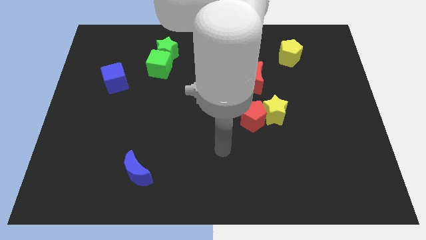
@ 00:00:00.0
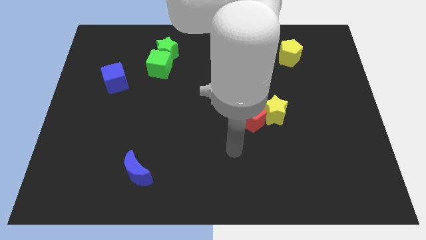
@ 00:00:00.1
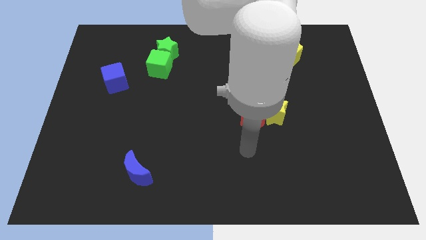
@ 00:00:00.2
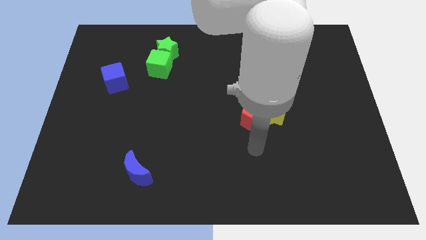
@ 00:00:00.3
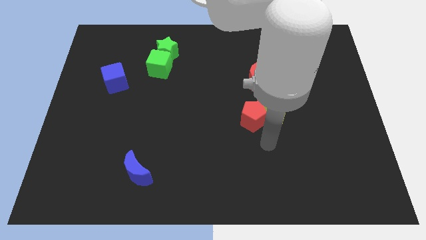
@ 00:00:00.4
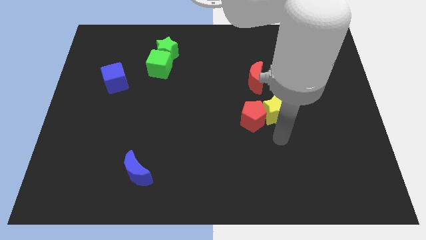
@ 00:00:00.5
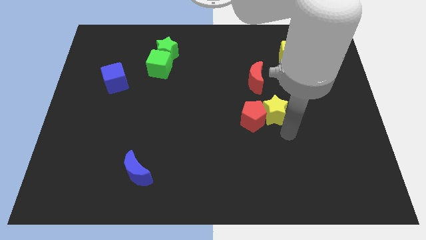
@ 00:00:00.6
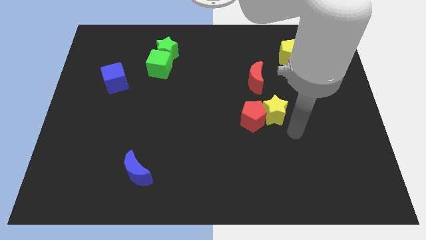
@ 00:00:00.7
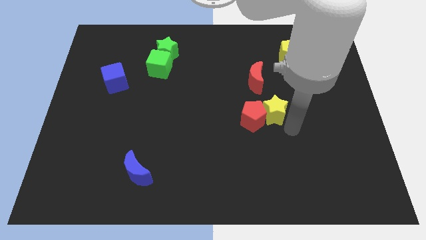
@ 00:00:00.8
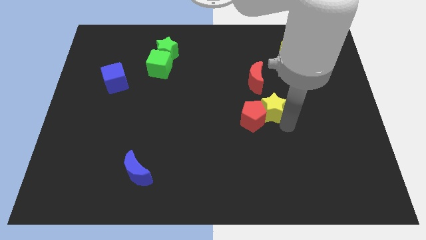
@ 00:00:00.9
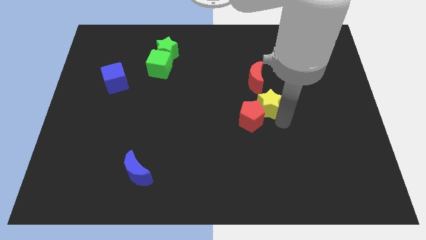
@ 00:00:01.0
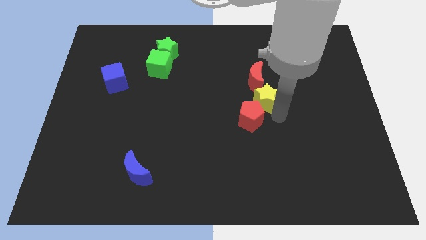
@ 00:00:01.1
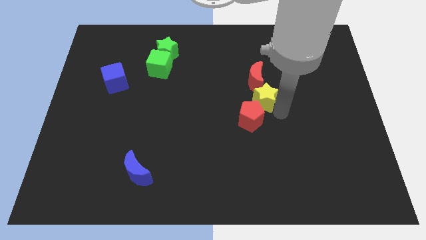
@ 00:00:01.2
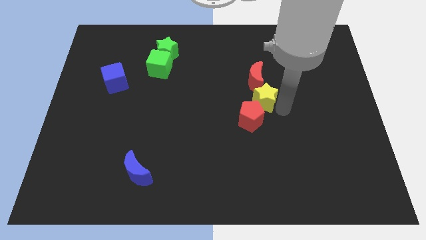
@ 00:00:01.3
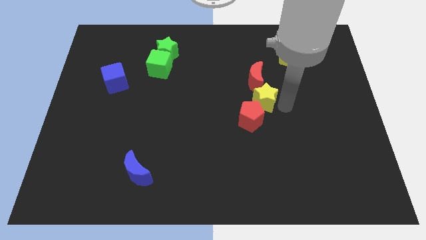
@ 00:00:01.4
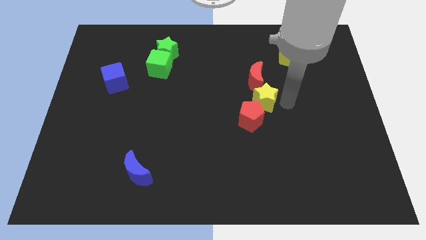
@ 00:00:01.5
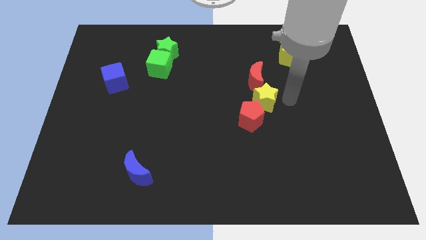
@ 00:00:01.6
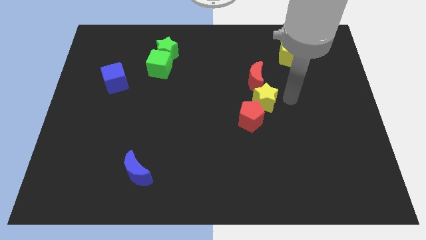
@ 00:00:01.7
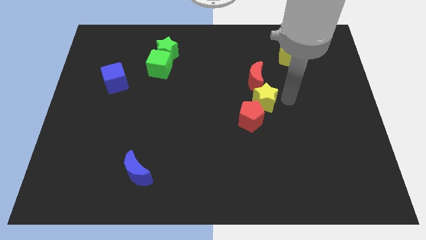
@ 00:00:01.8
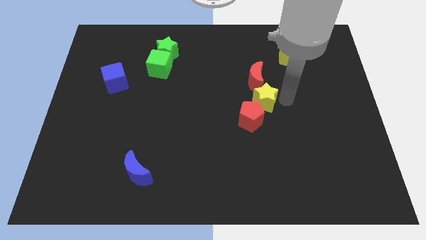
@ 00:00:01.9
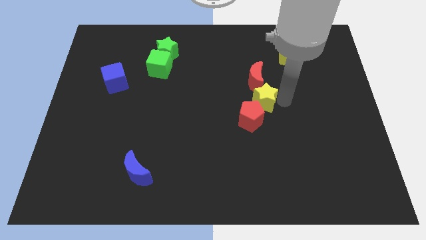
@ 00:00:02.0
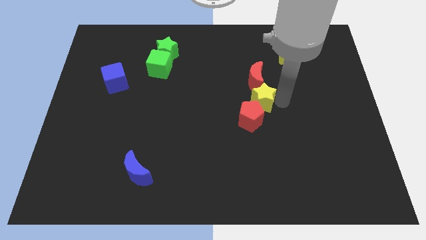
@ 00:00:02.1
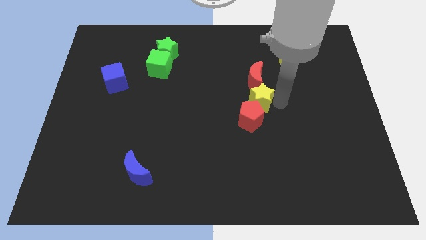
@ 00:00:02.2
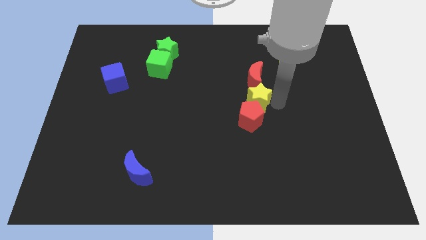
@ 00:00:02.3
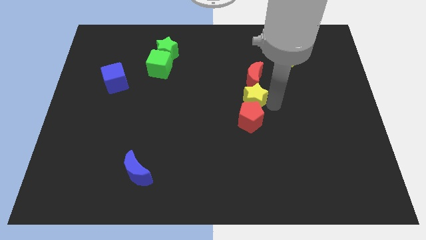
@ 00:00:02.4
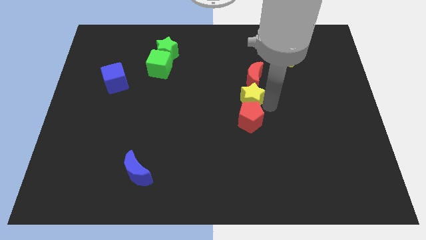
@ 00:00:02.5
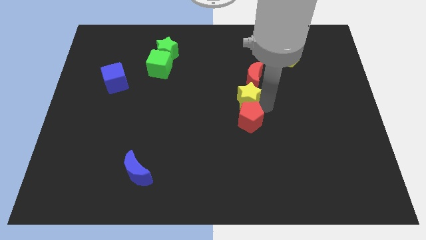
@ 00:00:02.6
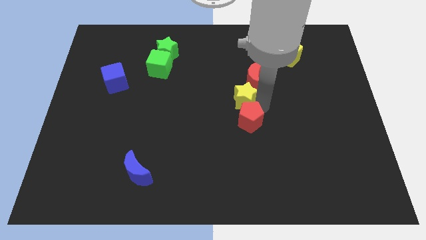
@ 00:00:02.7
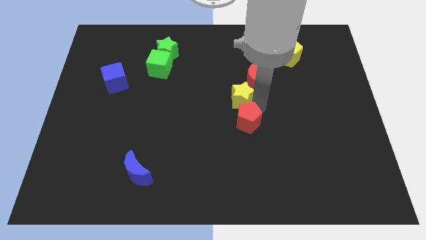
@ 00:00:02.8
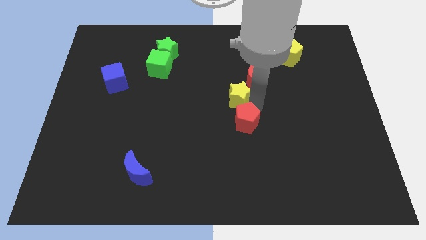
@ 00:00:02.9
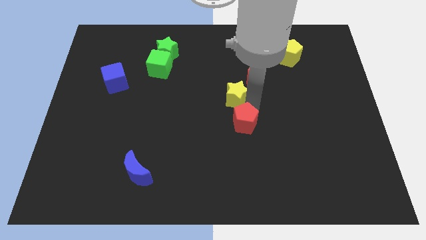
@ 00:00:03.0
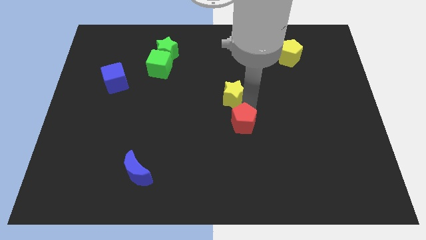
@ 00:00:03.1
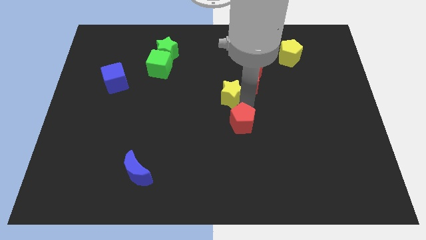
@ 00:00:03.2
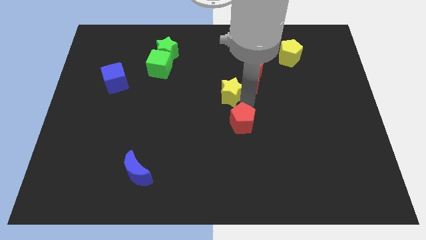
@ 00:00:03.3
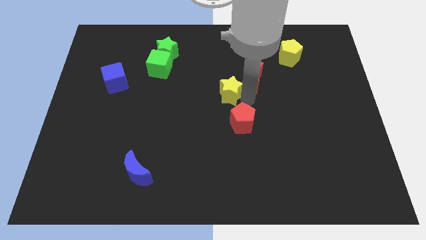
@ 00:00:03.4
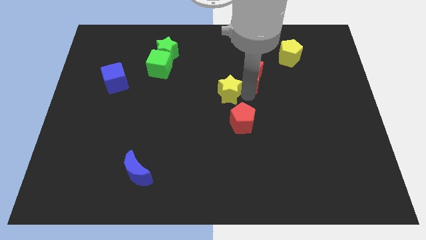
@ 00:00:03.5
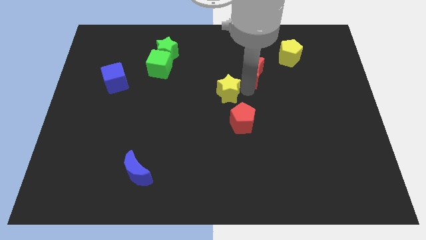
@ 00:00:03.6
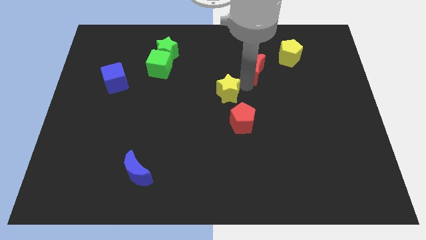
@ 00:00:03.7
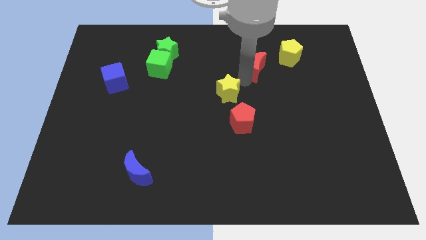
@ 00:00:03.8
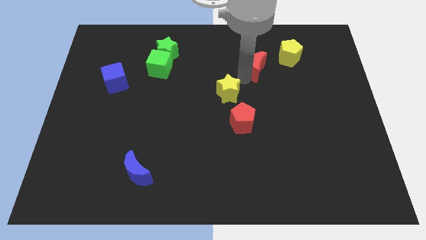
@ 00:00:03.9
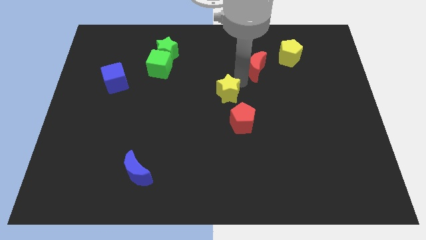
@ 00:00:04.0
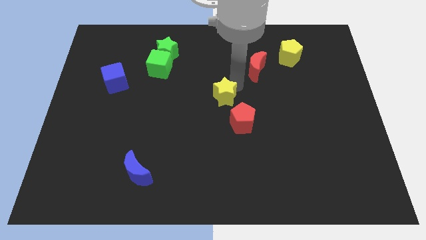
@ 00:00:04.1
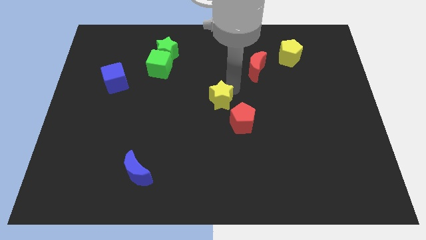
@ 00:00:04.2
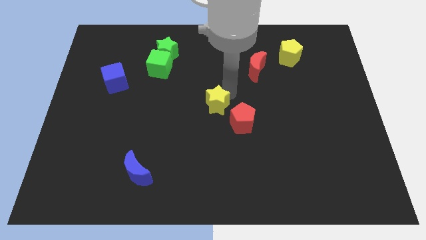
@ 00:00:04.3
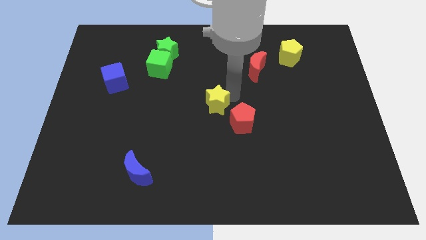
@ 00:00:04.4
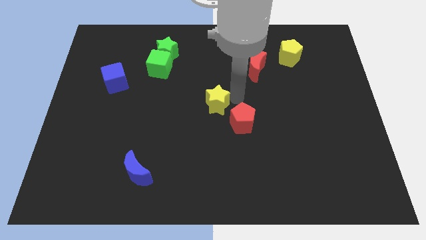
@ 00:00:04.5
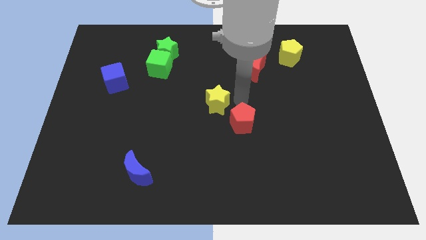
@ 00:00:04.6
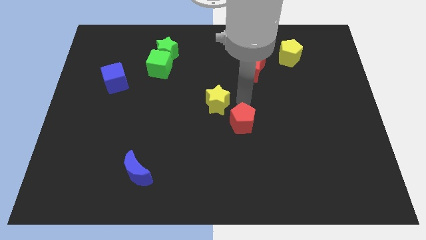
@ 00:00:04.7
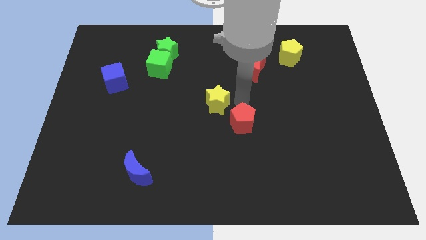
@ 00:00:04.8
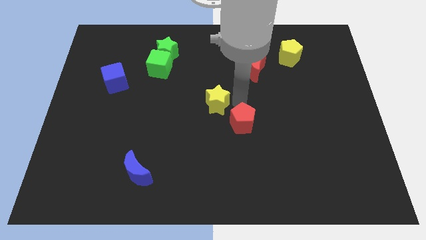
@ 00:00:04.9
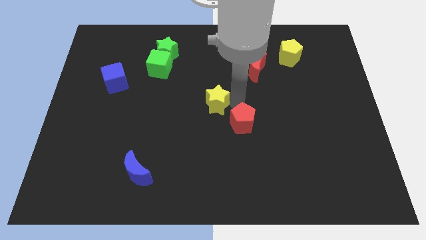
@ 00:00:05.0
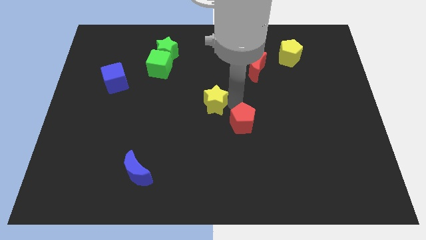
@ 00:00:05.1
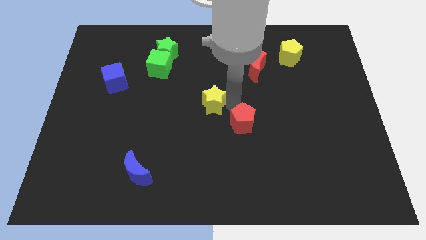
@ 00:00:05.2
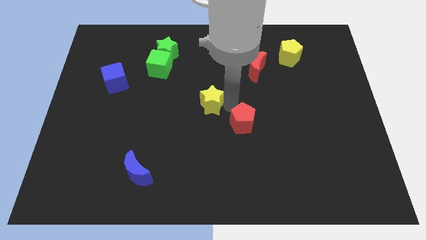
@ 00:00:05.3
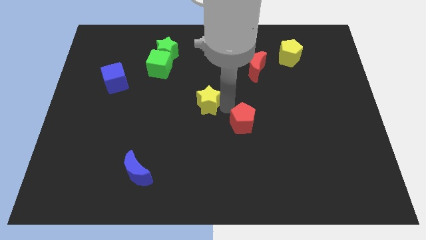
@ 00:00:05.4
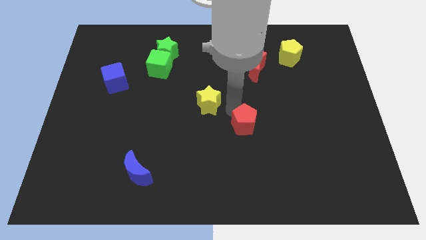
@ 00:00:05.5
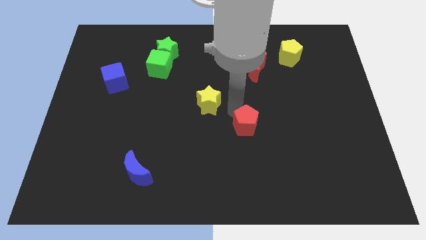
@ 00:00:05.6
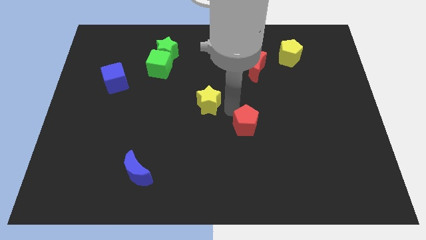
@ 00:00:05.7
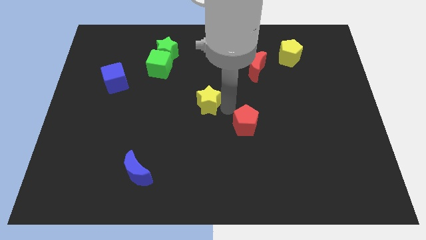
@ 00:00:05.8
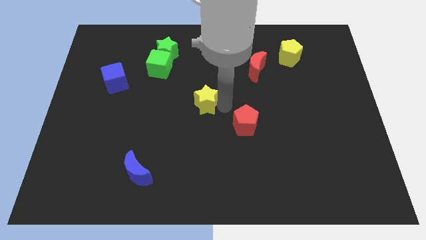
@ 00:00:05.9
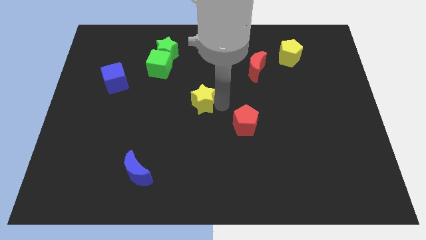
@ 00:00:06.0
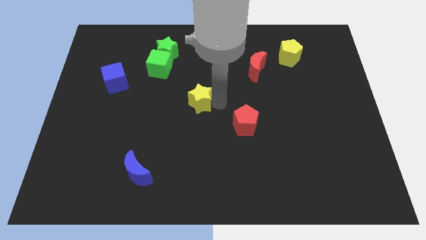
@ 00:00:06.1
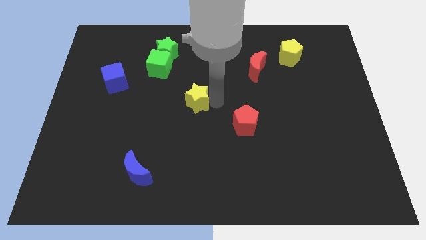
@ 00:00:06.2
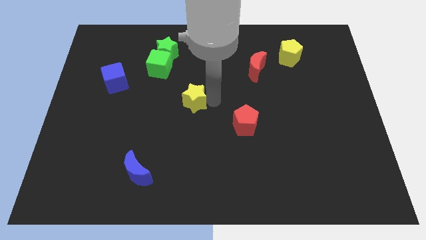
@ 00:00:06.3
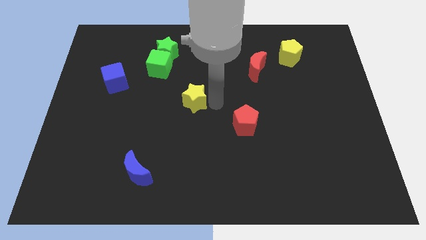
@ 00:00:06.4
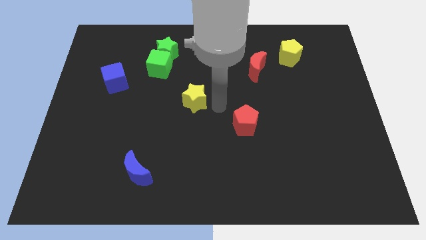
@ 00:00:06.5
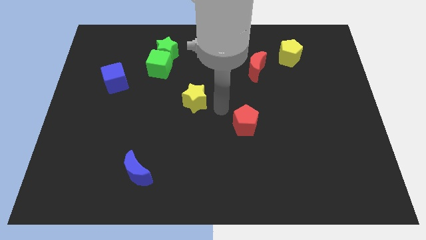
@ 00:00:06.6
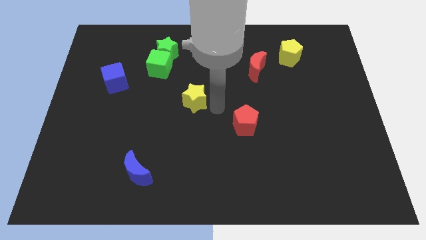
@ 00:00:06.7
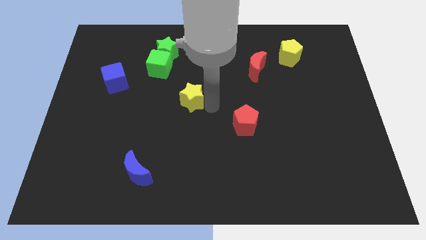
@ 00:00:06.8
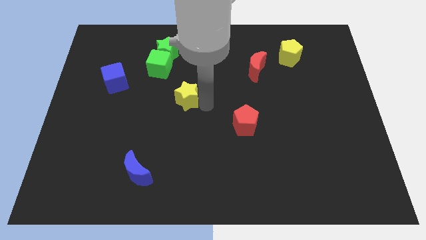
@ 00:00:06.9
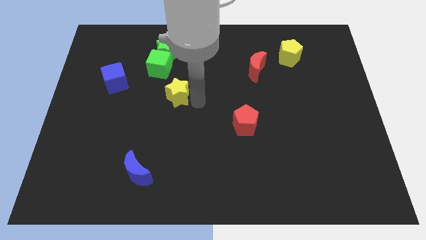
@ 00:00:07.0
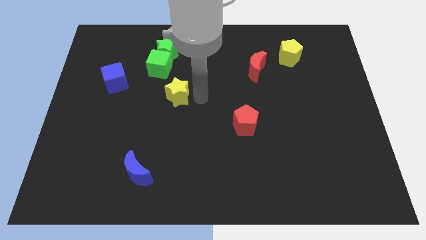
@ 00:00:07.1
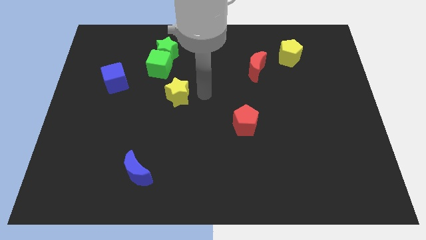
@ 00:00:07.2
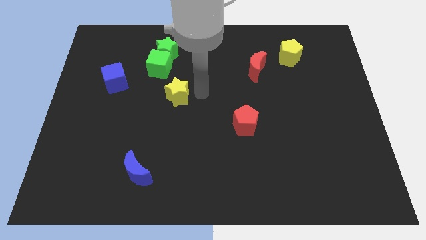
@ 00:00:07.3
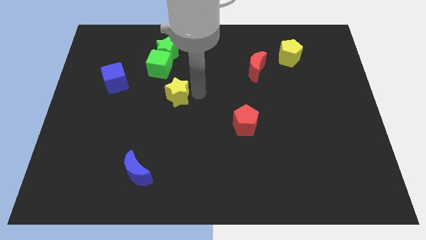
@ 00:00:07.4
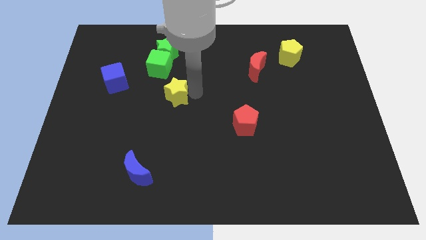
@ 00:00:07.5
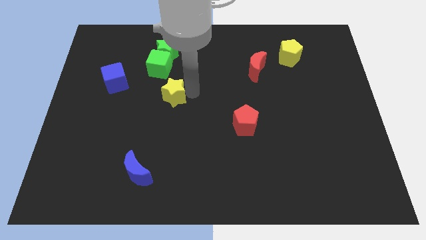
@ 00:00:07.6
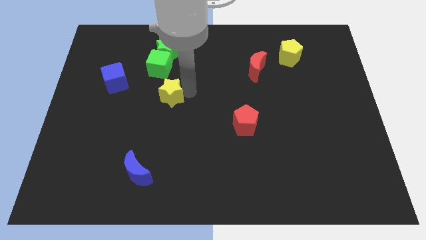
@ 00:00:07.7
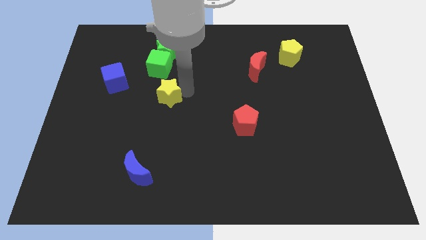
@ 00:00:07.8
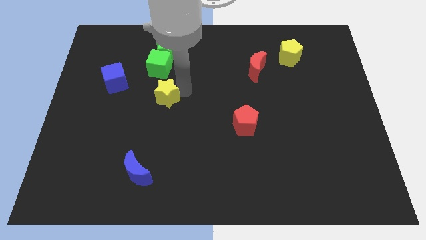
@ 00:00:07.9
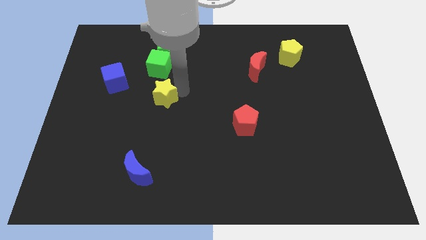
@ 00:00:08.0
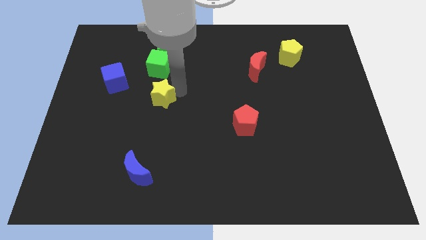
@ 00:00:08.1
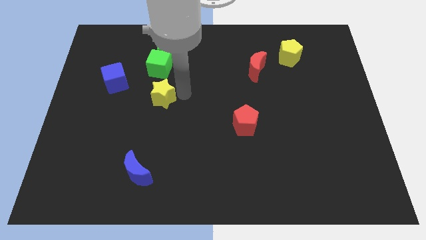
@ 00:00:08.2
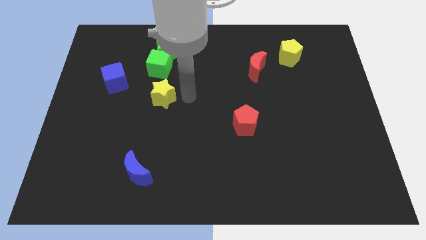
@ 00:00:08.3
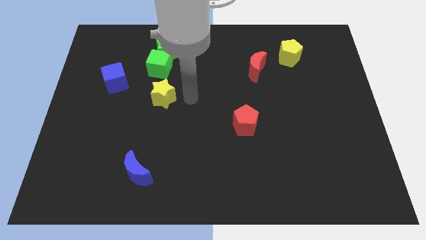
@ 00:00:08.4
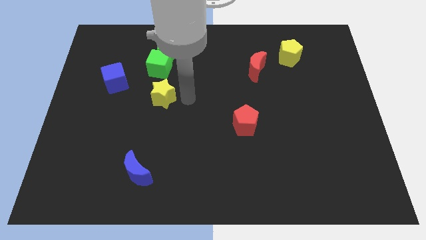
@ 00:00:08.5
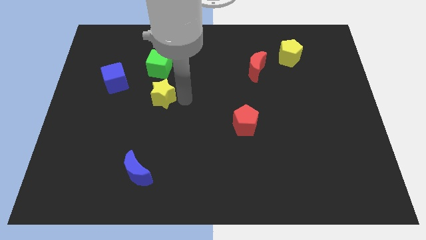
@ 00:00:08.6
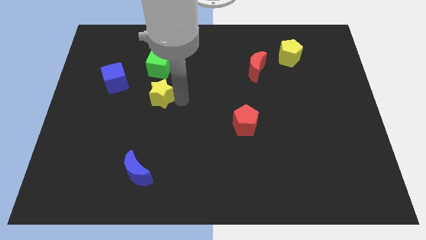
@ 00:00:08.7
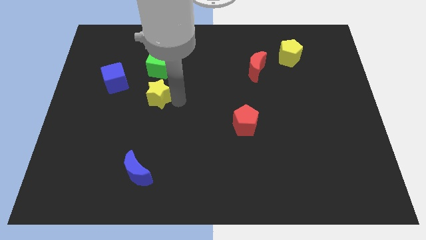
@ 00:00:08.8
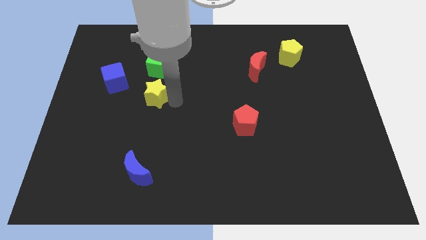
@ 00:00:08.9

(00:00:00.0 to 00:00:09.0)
move the yellow star to the bottom right side of the blue cube
